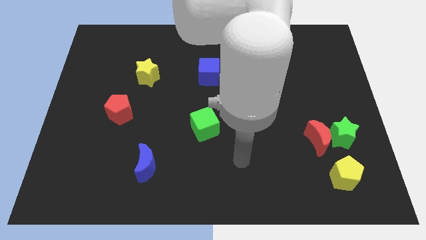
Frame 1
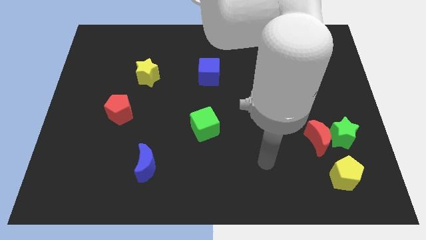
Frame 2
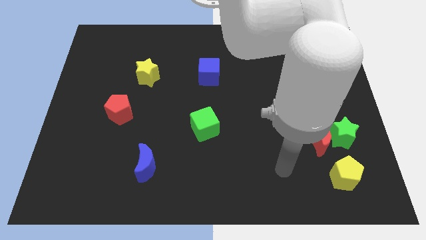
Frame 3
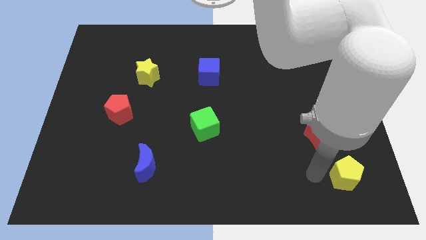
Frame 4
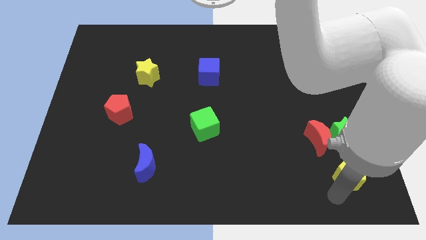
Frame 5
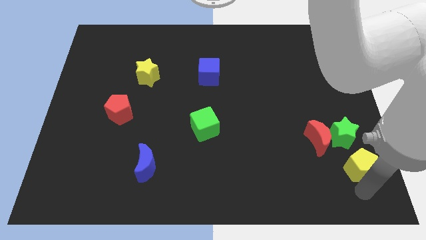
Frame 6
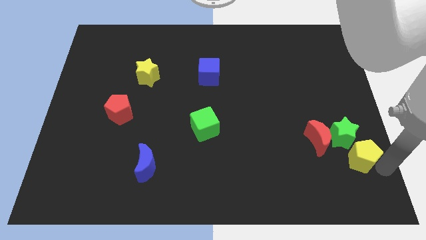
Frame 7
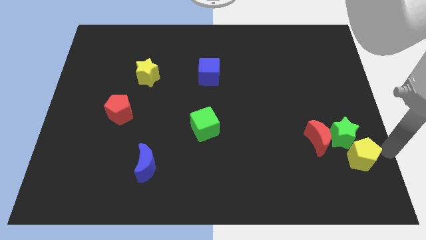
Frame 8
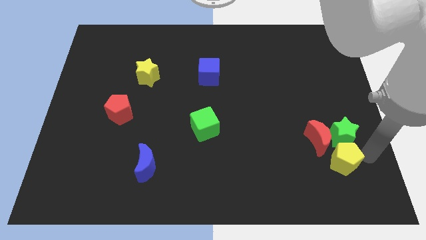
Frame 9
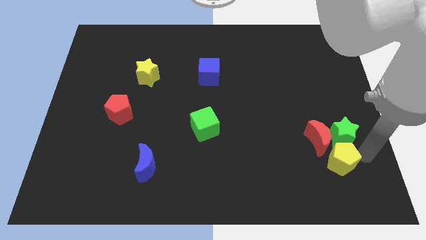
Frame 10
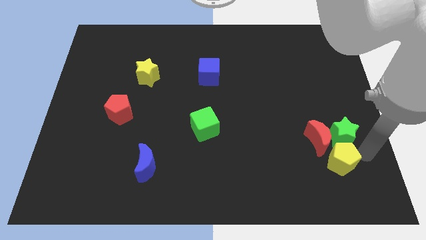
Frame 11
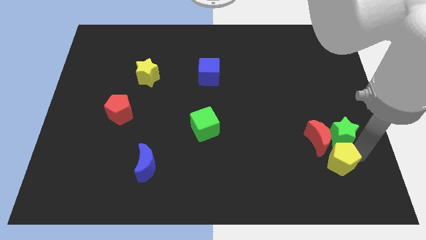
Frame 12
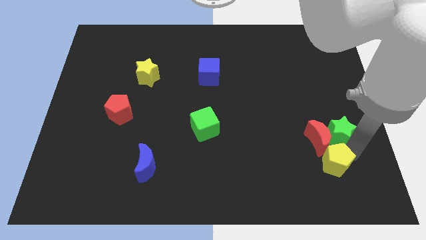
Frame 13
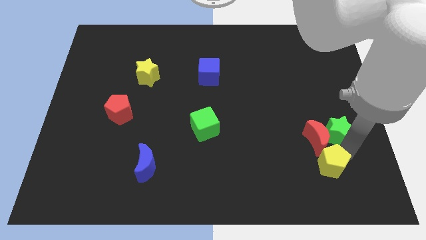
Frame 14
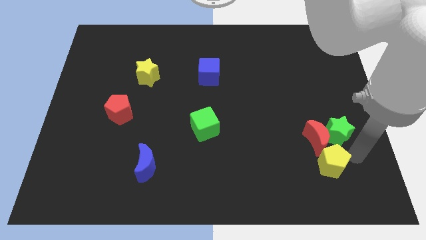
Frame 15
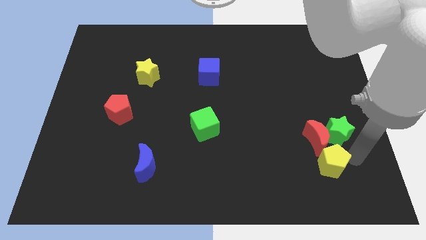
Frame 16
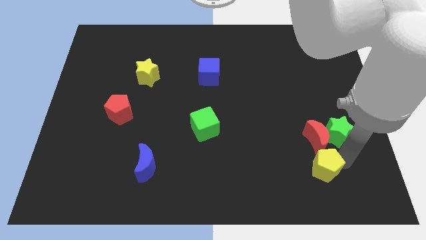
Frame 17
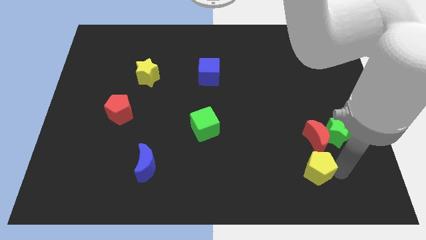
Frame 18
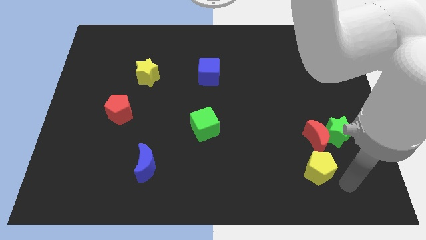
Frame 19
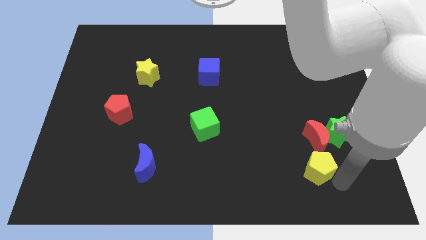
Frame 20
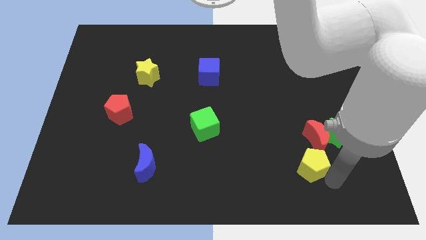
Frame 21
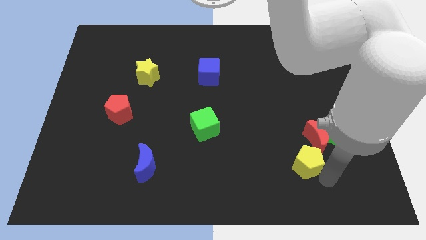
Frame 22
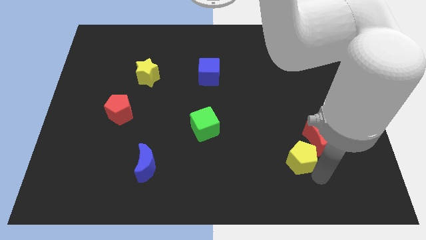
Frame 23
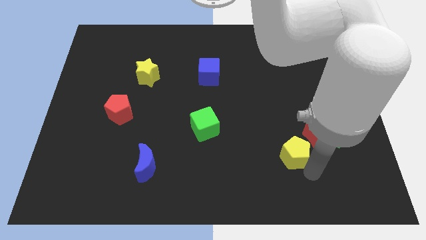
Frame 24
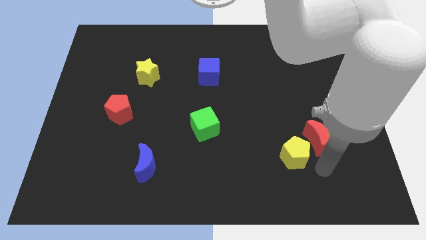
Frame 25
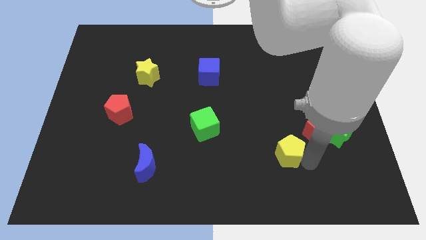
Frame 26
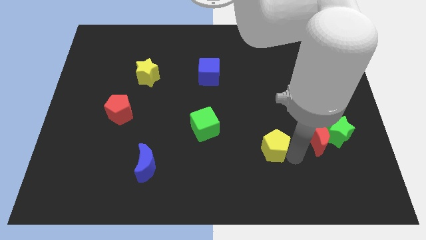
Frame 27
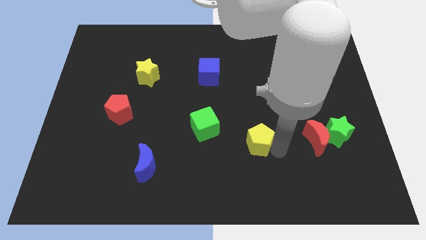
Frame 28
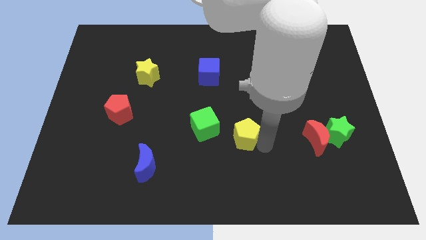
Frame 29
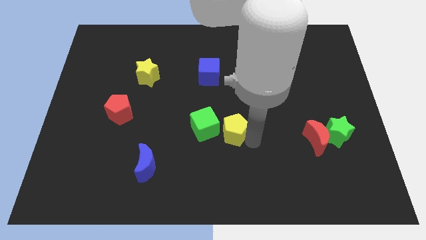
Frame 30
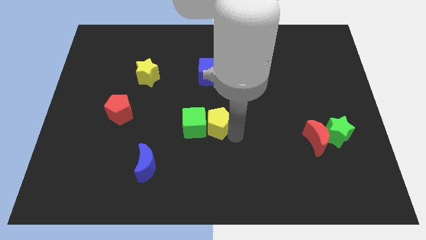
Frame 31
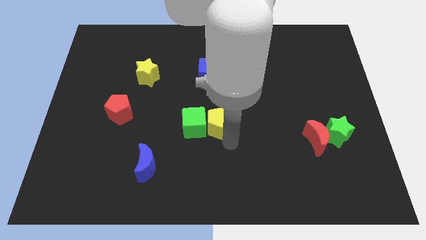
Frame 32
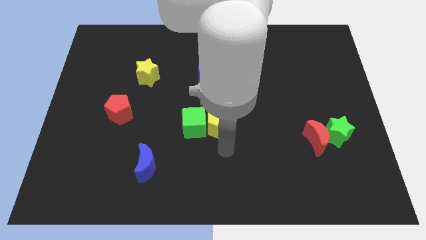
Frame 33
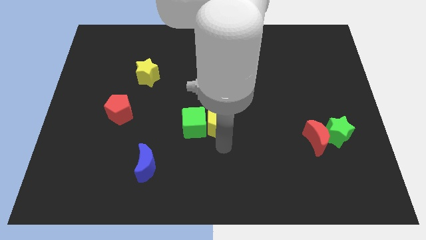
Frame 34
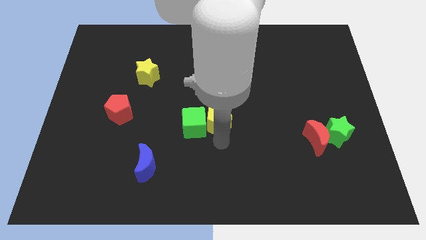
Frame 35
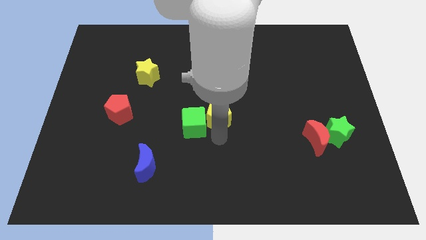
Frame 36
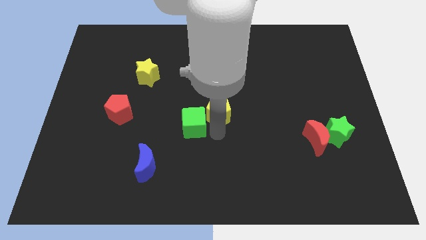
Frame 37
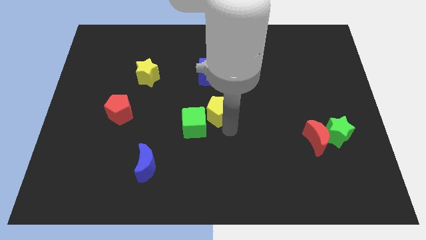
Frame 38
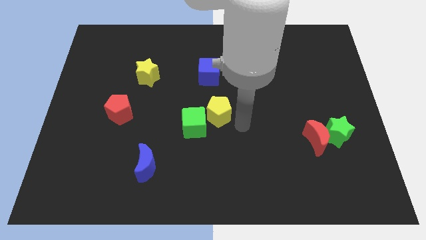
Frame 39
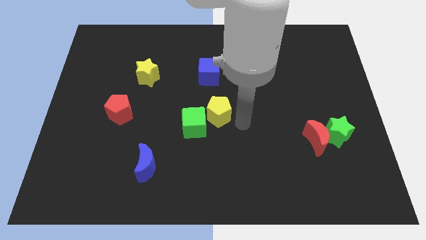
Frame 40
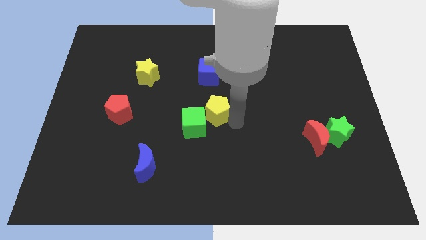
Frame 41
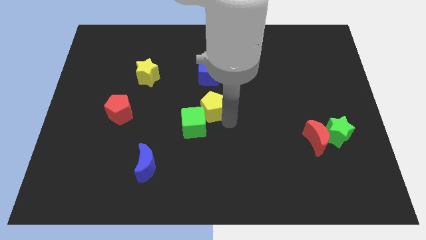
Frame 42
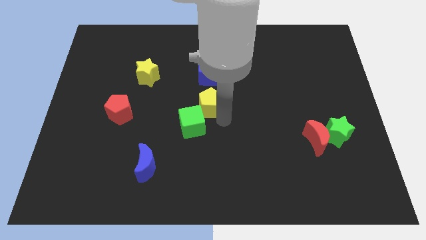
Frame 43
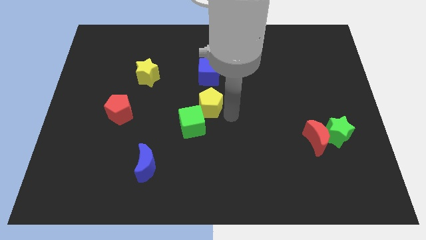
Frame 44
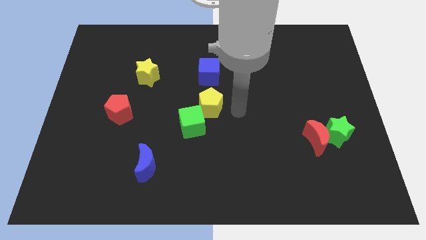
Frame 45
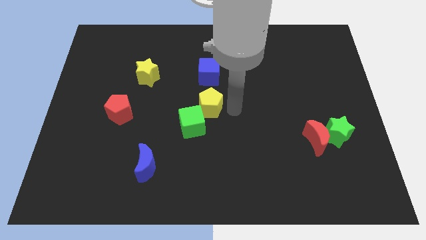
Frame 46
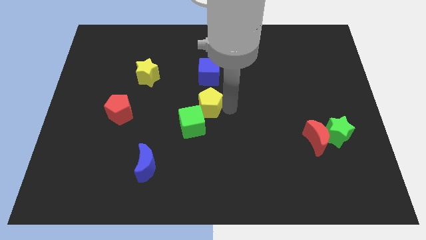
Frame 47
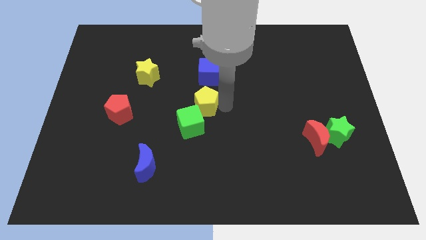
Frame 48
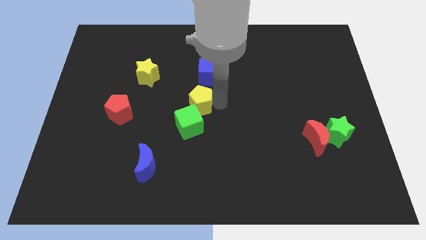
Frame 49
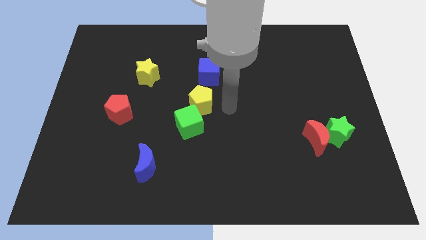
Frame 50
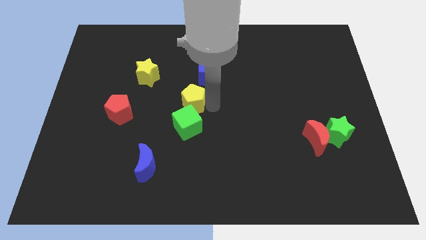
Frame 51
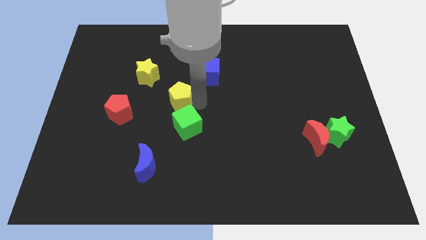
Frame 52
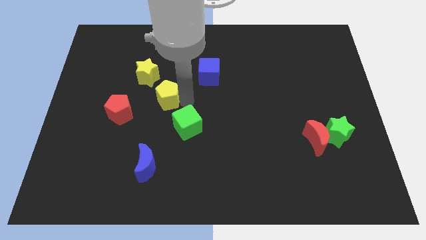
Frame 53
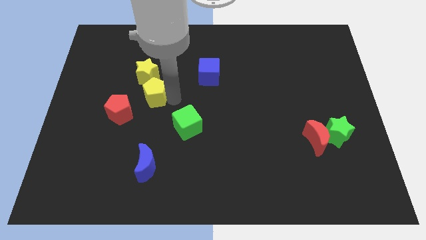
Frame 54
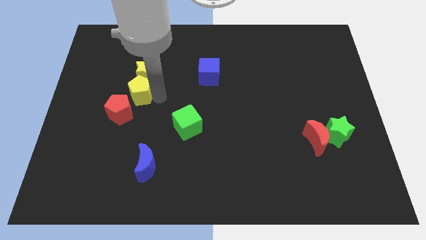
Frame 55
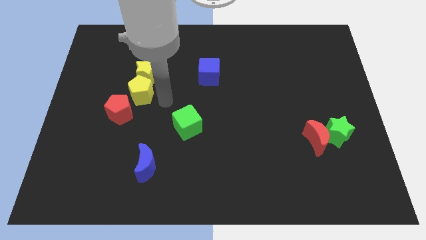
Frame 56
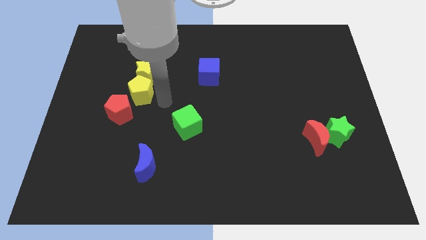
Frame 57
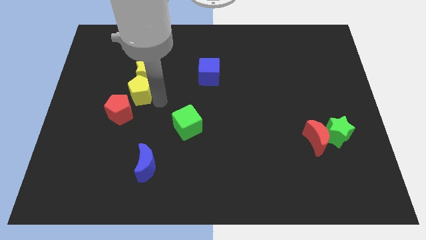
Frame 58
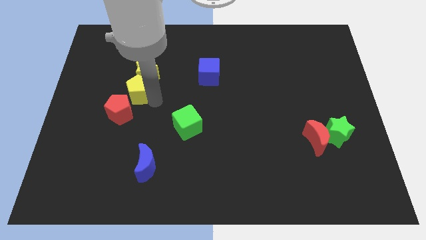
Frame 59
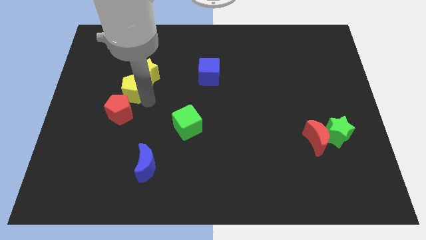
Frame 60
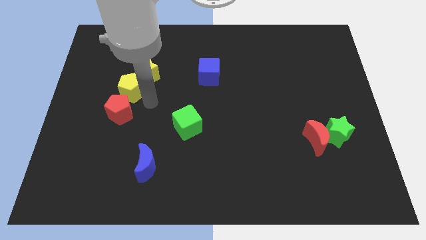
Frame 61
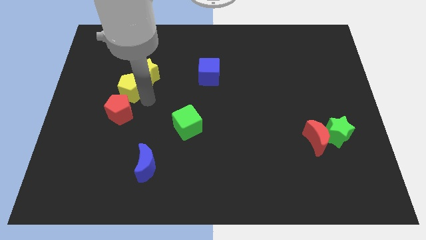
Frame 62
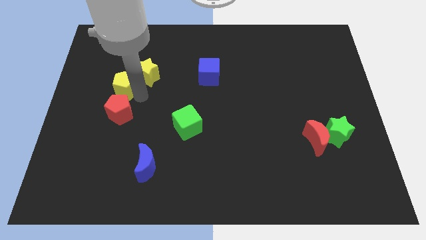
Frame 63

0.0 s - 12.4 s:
slide the yellow pentagon just left of the yellow star

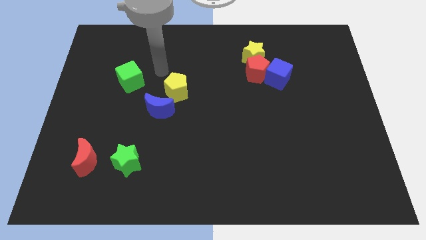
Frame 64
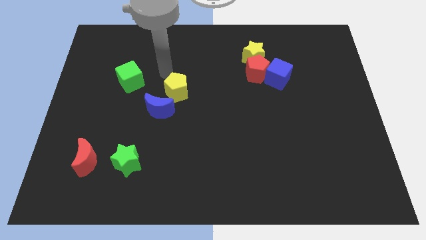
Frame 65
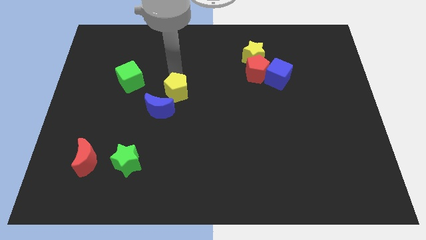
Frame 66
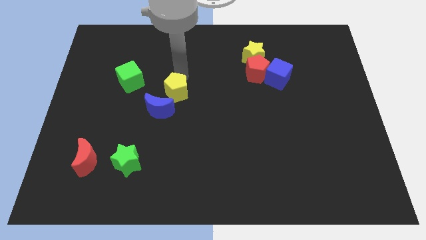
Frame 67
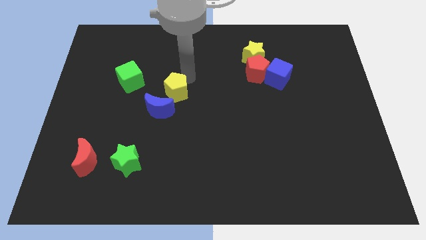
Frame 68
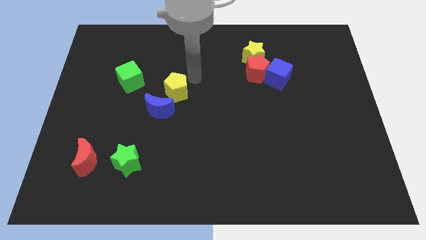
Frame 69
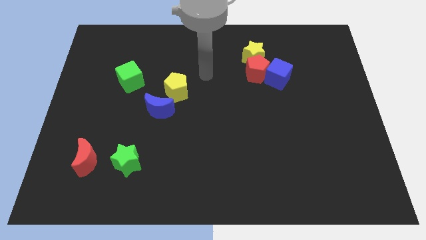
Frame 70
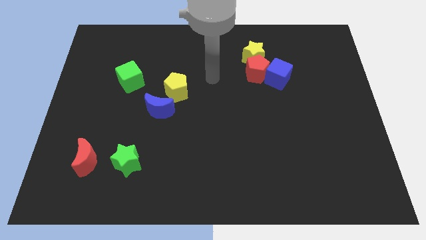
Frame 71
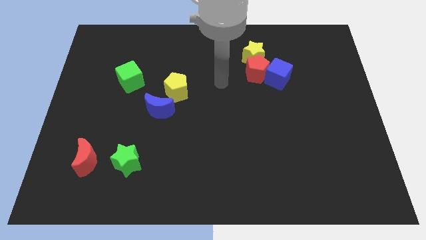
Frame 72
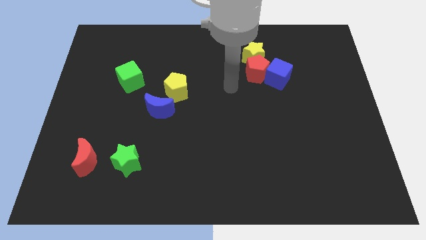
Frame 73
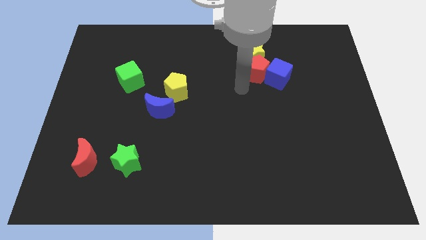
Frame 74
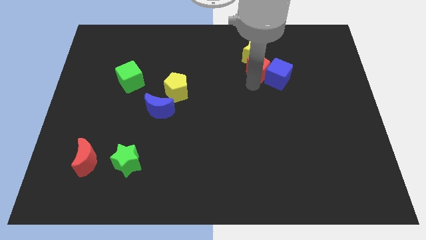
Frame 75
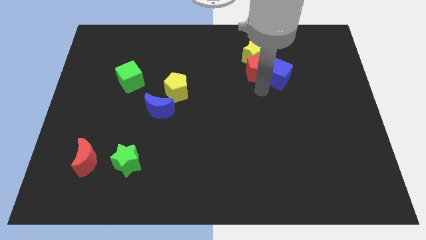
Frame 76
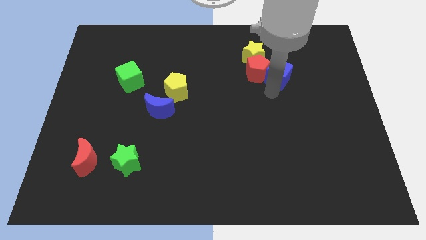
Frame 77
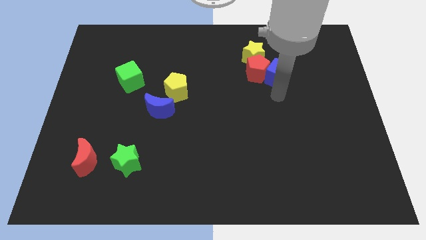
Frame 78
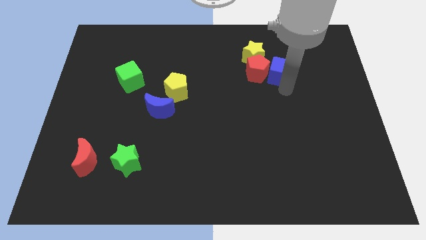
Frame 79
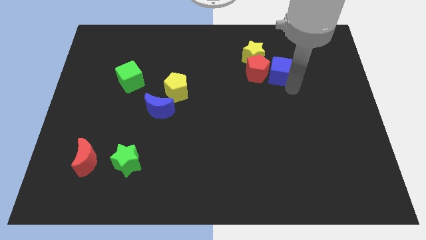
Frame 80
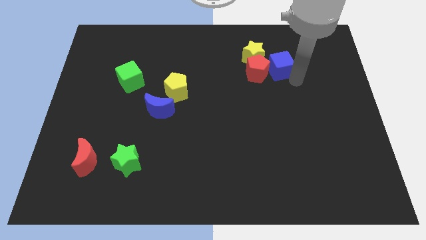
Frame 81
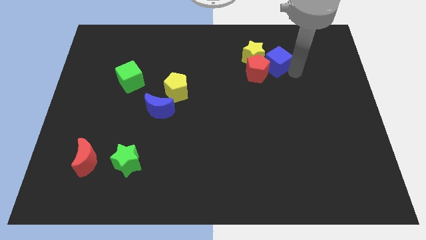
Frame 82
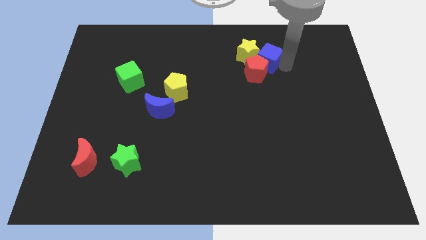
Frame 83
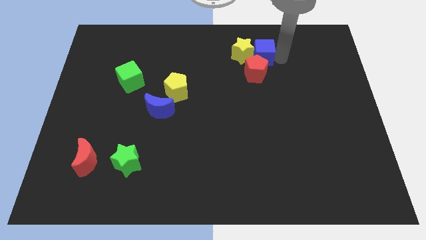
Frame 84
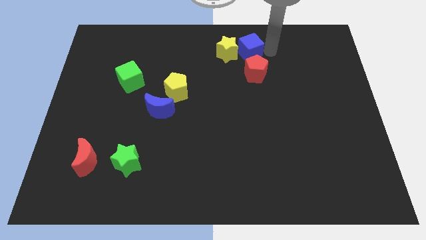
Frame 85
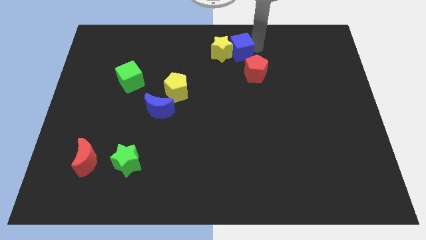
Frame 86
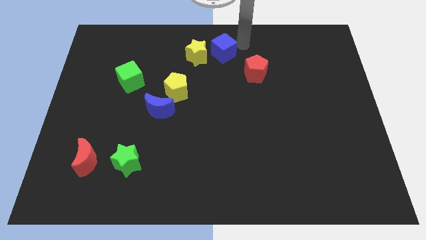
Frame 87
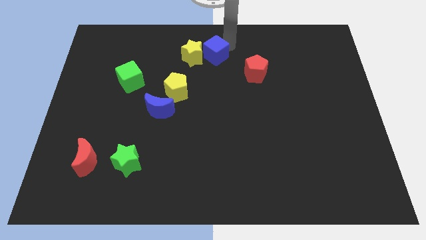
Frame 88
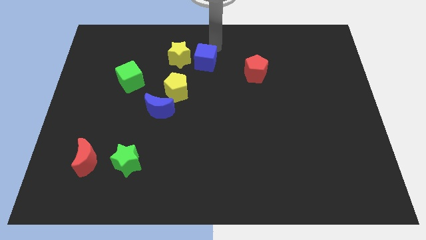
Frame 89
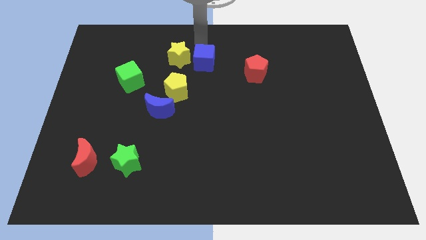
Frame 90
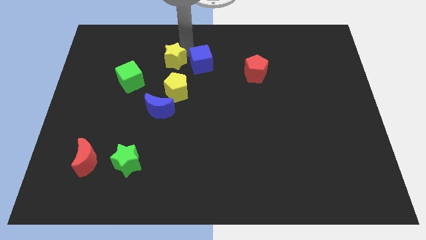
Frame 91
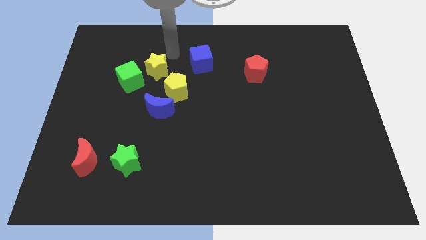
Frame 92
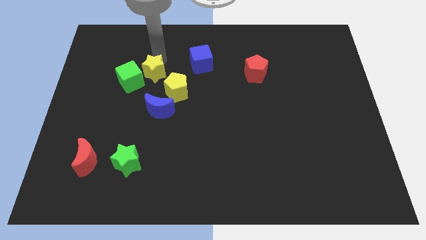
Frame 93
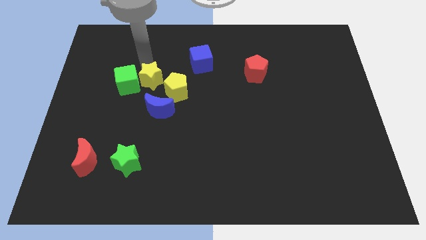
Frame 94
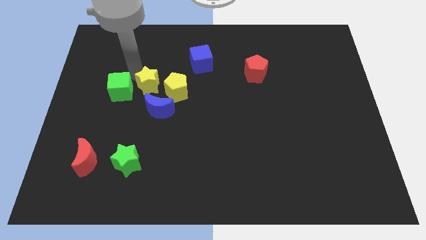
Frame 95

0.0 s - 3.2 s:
move the yellow star to the top left side of the blue moon
